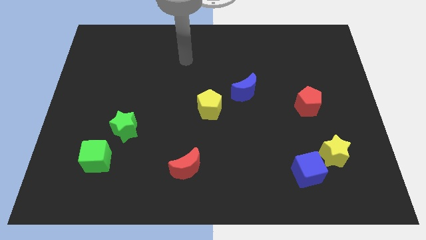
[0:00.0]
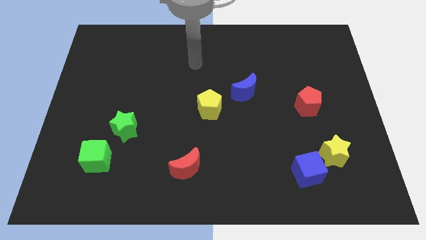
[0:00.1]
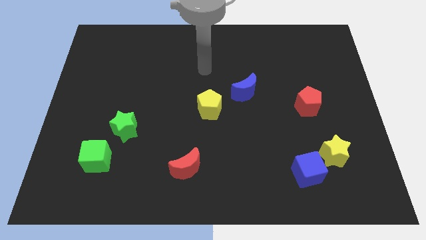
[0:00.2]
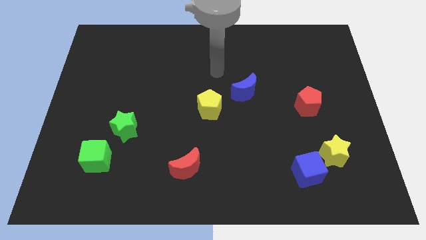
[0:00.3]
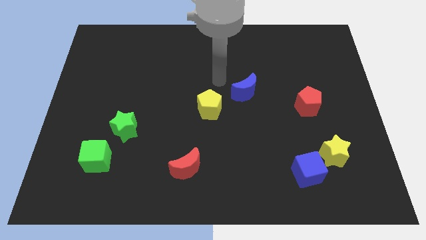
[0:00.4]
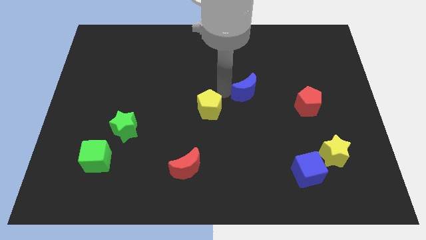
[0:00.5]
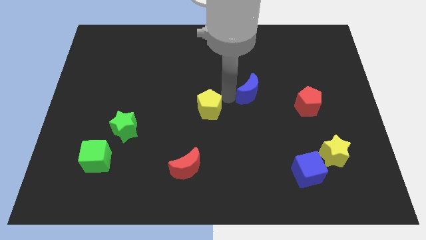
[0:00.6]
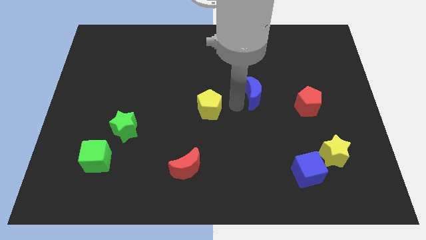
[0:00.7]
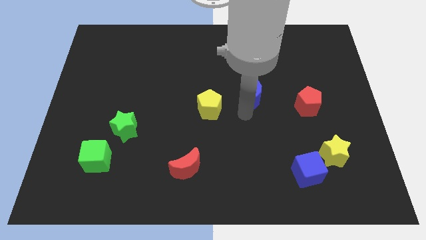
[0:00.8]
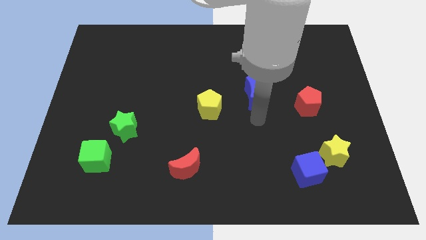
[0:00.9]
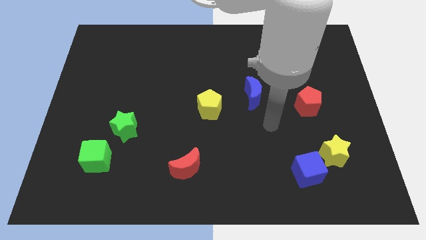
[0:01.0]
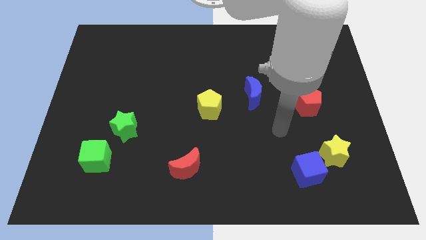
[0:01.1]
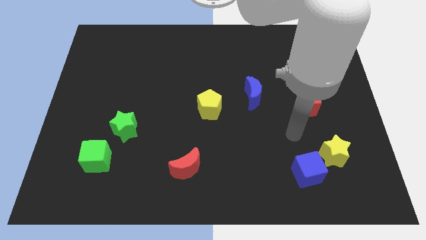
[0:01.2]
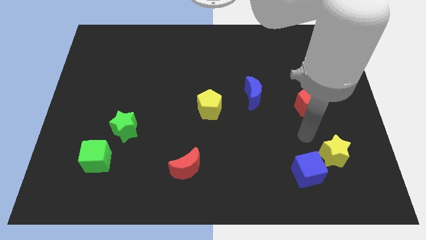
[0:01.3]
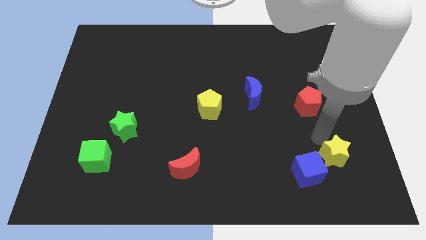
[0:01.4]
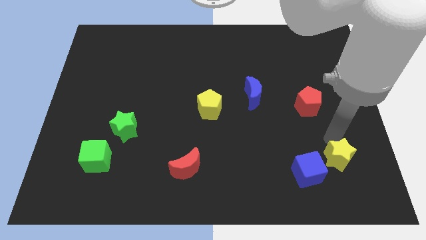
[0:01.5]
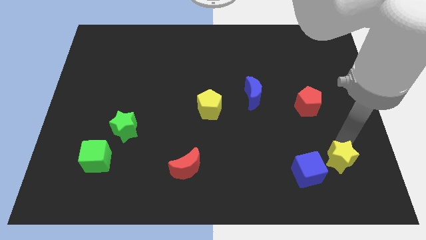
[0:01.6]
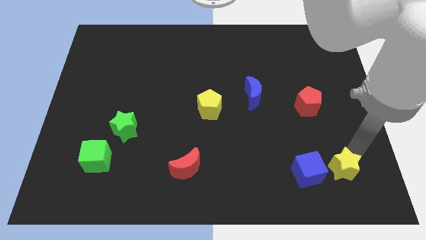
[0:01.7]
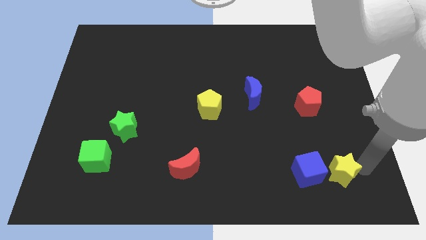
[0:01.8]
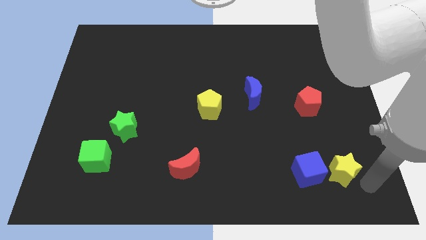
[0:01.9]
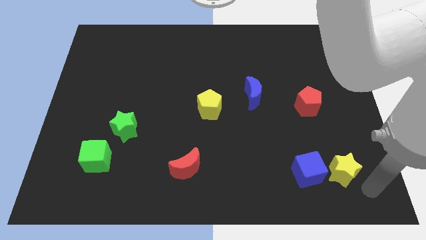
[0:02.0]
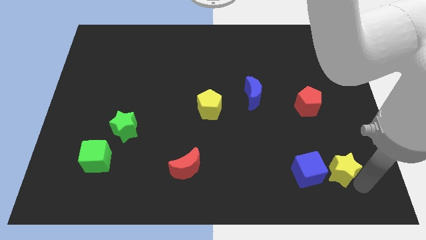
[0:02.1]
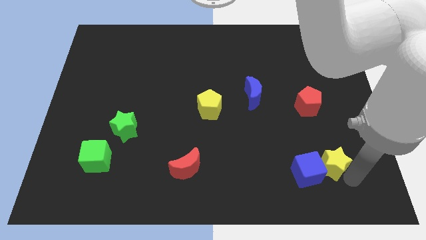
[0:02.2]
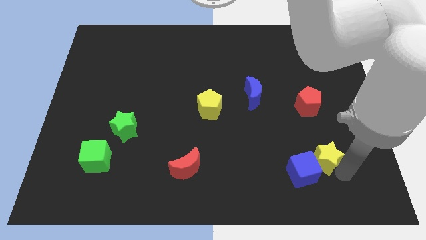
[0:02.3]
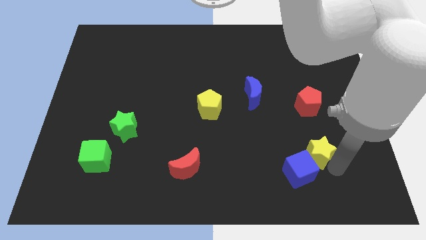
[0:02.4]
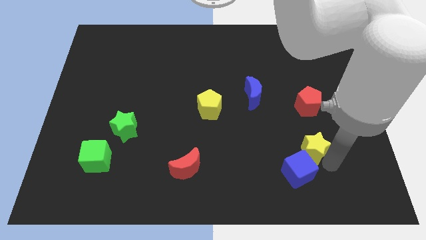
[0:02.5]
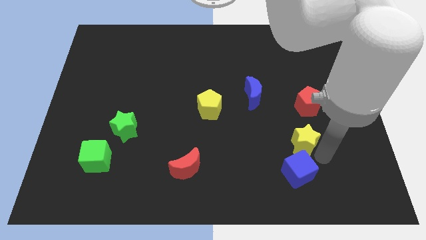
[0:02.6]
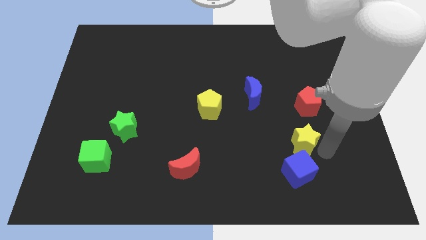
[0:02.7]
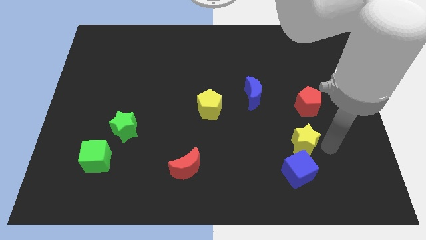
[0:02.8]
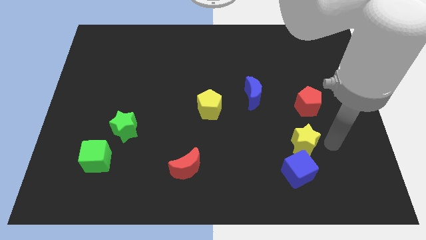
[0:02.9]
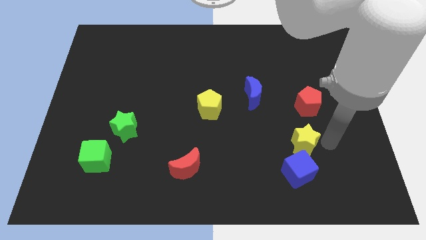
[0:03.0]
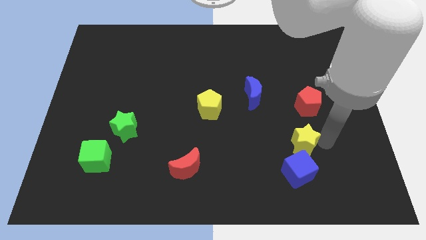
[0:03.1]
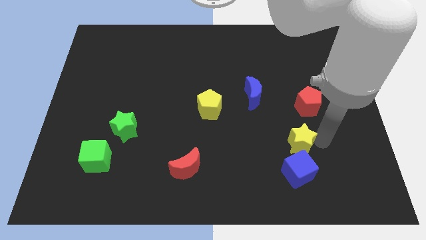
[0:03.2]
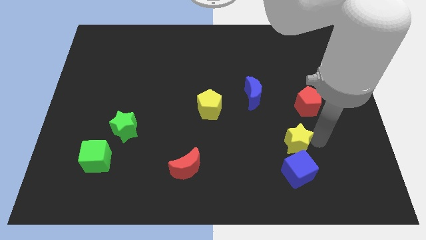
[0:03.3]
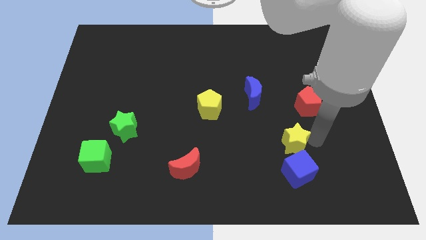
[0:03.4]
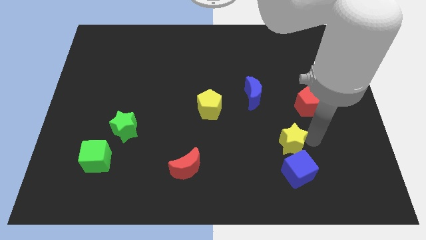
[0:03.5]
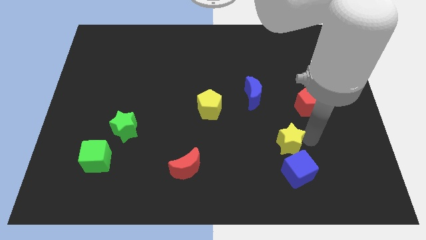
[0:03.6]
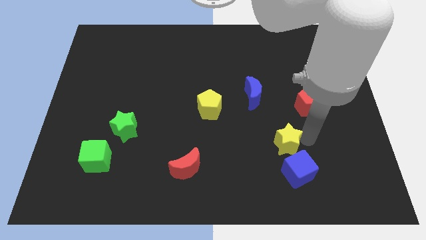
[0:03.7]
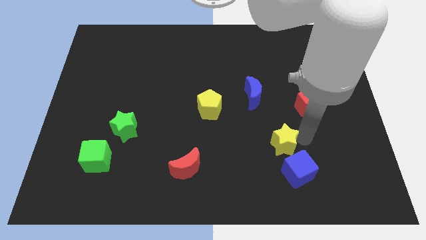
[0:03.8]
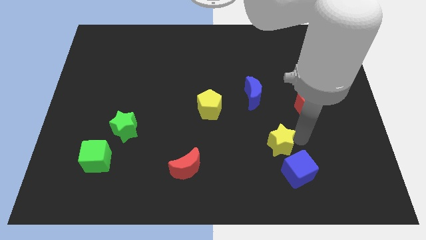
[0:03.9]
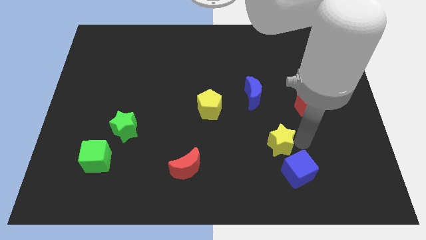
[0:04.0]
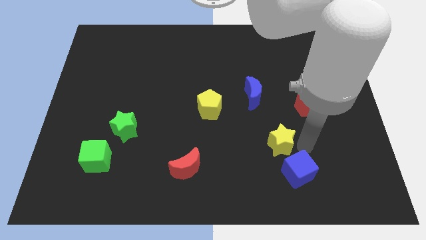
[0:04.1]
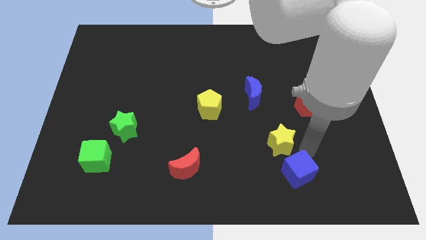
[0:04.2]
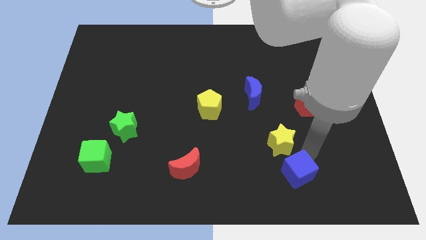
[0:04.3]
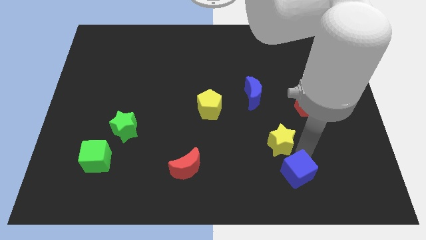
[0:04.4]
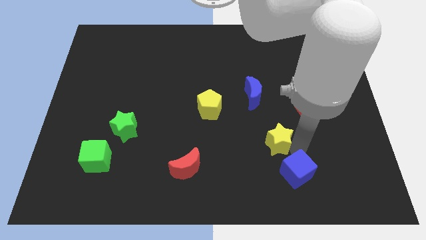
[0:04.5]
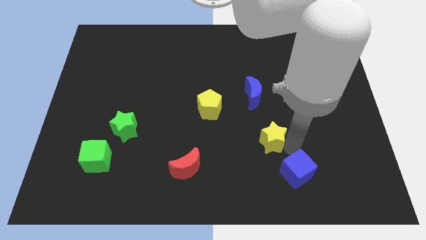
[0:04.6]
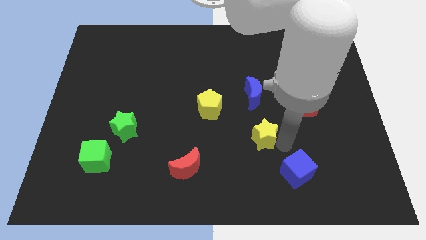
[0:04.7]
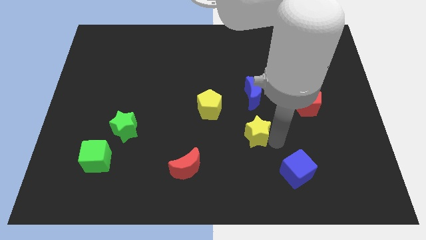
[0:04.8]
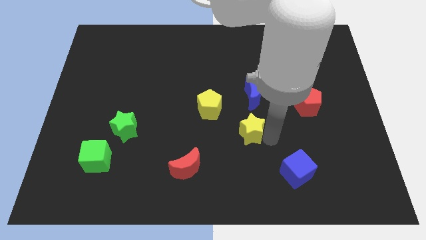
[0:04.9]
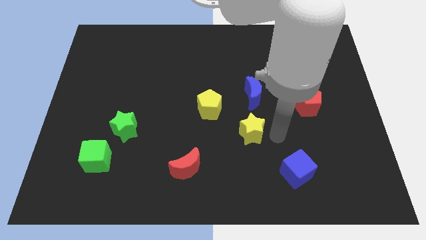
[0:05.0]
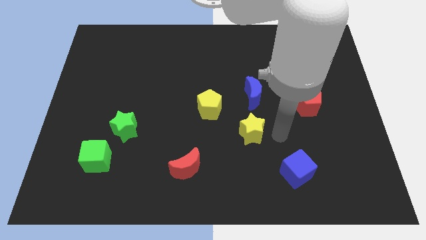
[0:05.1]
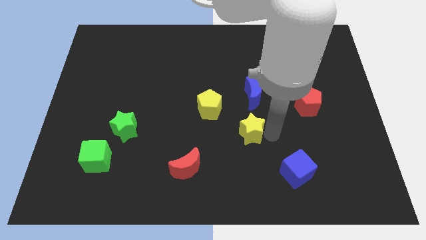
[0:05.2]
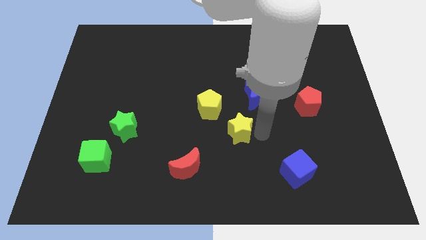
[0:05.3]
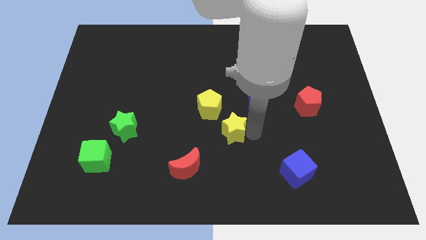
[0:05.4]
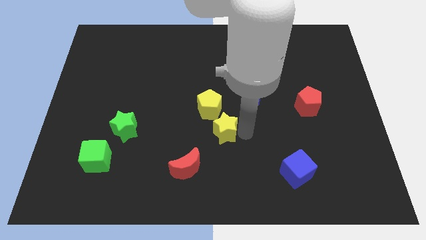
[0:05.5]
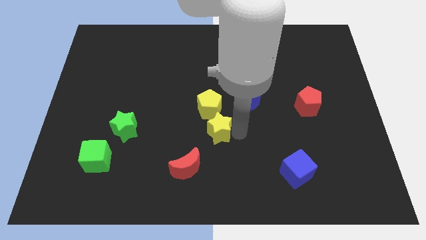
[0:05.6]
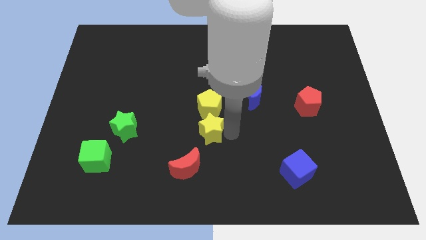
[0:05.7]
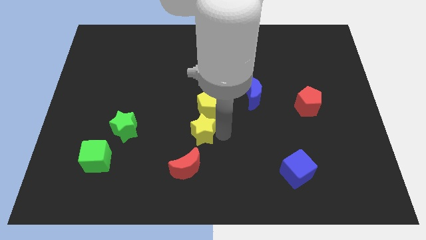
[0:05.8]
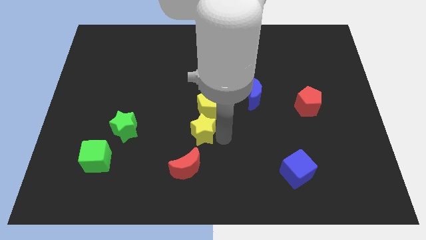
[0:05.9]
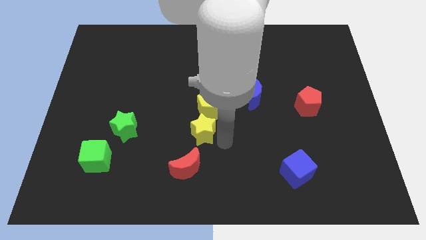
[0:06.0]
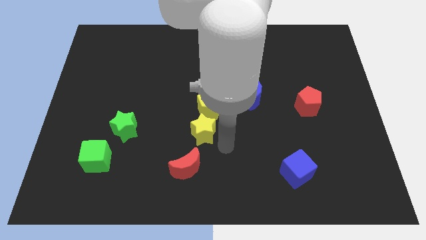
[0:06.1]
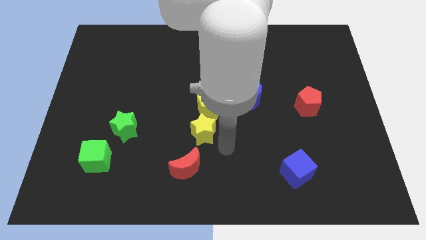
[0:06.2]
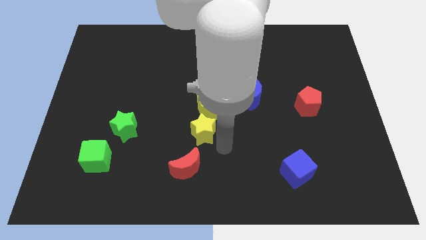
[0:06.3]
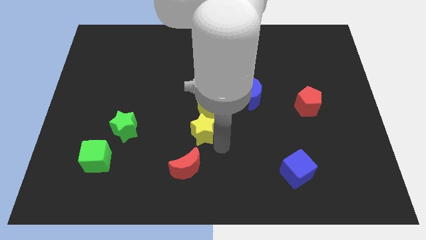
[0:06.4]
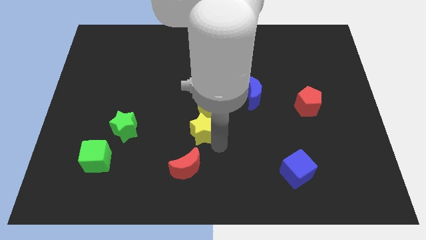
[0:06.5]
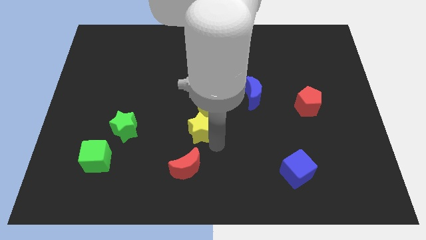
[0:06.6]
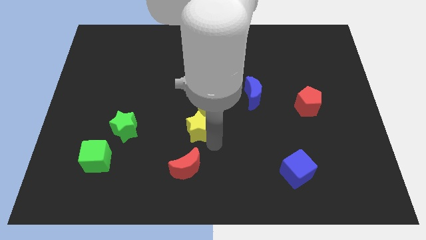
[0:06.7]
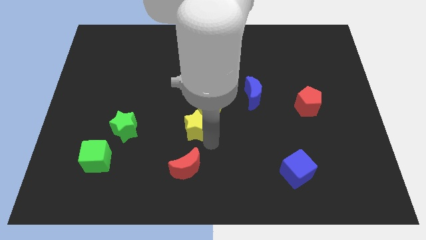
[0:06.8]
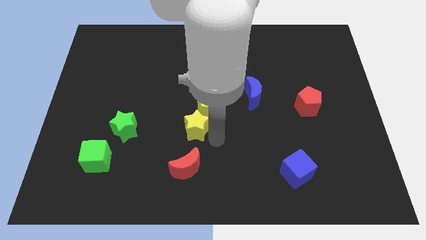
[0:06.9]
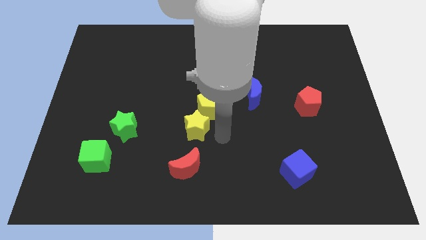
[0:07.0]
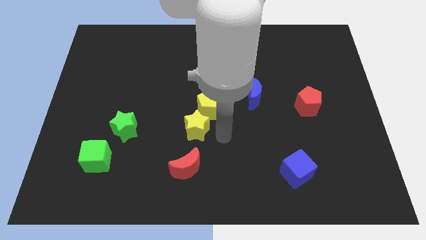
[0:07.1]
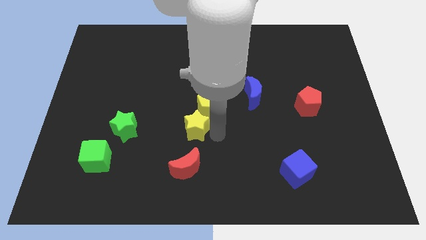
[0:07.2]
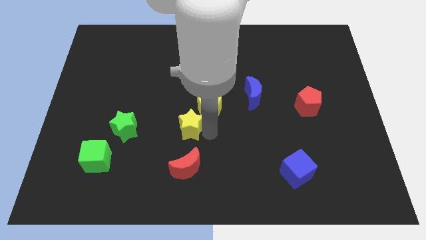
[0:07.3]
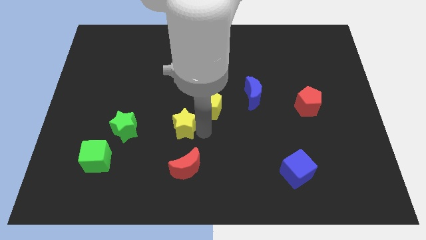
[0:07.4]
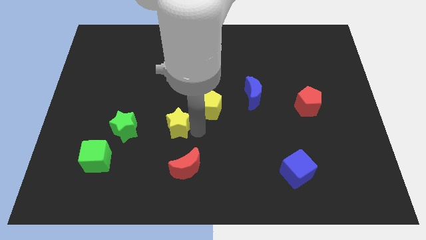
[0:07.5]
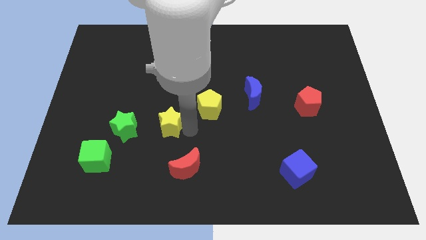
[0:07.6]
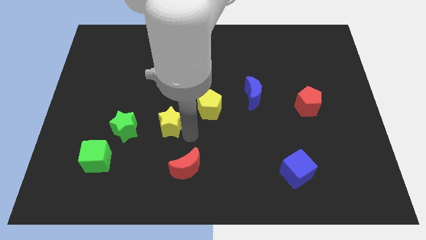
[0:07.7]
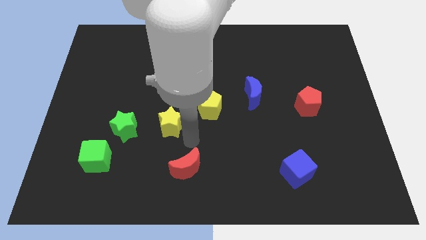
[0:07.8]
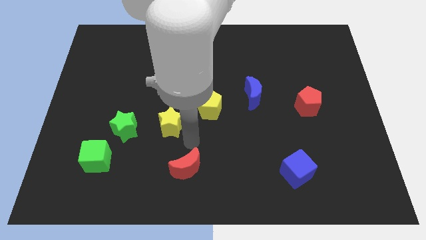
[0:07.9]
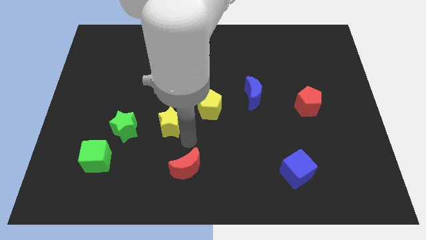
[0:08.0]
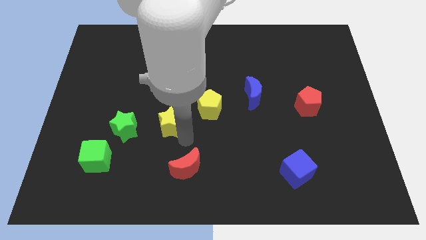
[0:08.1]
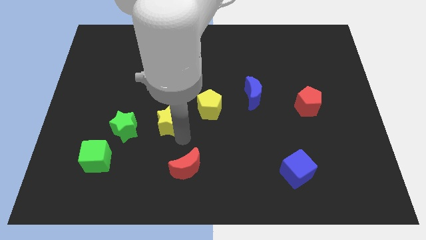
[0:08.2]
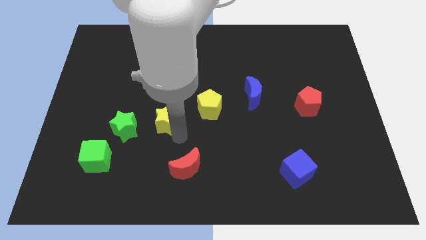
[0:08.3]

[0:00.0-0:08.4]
push the yellow star to the top right of the green star
